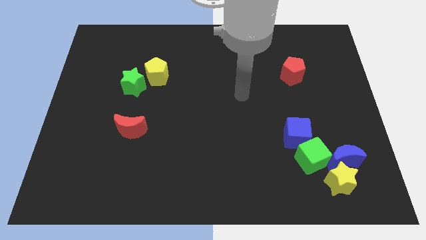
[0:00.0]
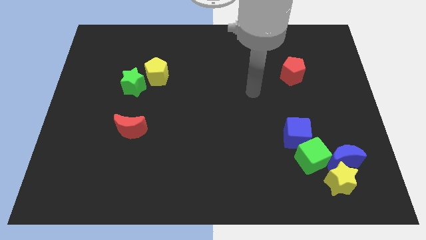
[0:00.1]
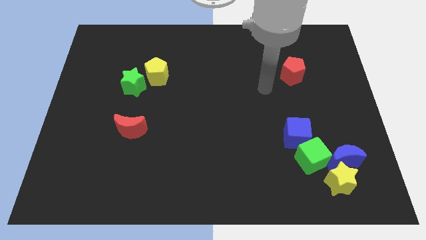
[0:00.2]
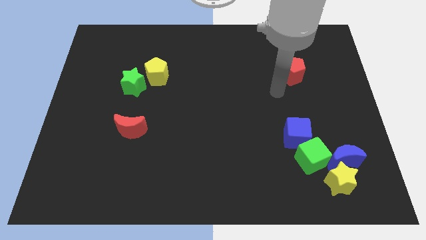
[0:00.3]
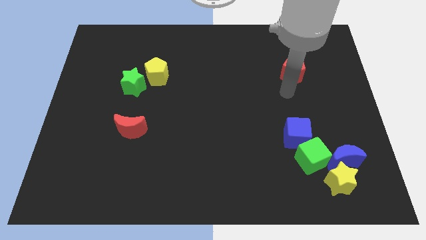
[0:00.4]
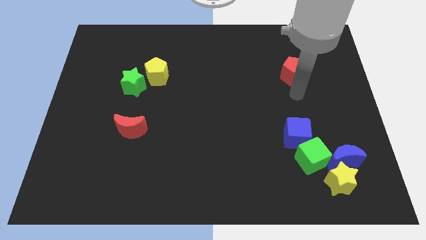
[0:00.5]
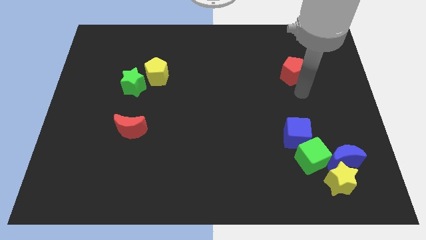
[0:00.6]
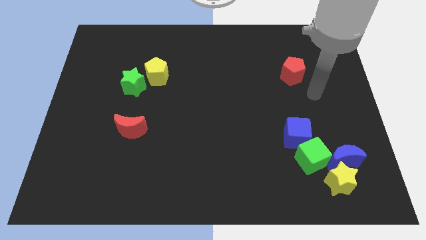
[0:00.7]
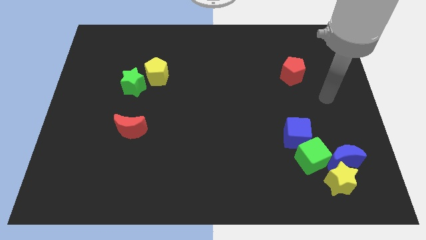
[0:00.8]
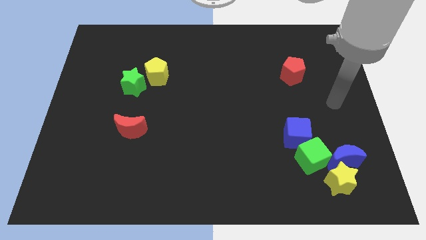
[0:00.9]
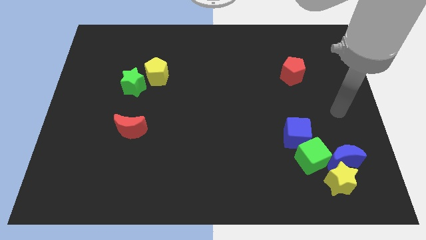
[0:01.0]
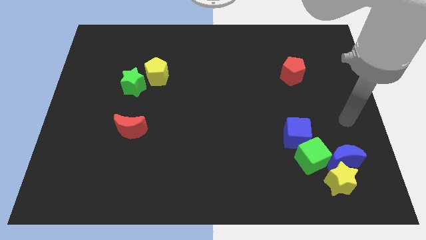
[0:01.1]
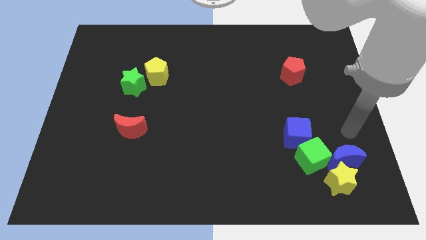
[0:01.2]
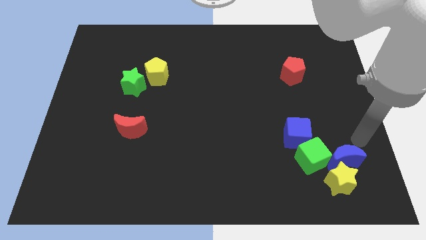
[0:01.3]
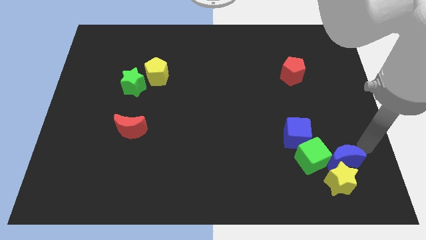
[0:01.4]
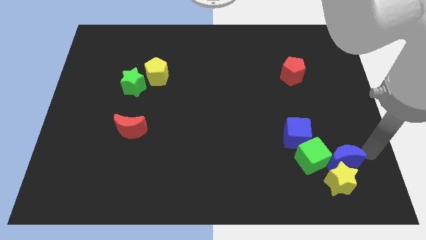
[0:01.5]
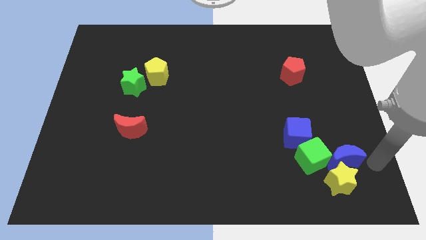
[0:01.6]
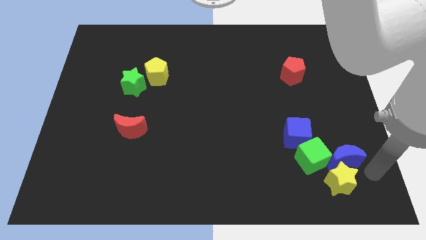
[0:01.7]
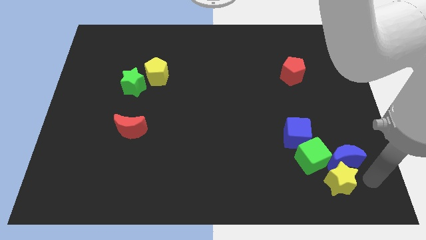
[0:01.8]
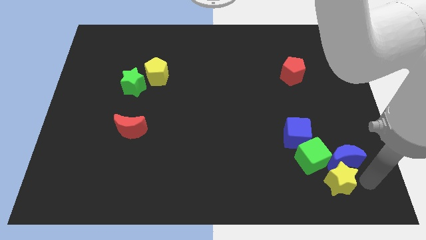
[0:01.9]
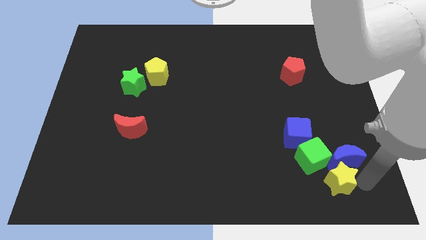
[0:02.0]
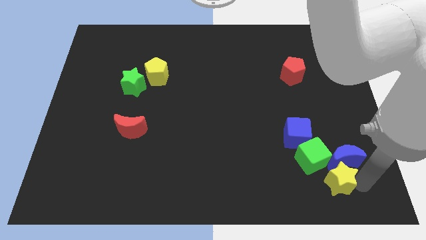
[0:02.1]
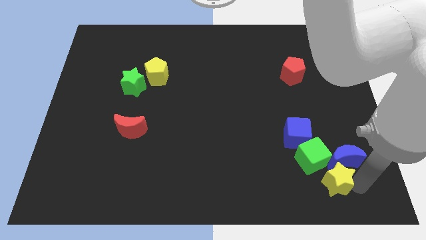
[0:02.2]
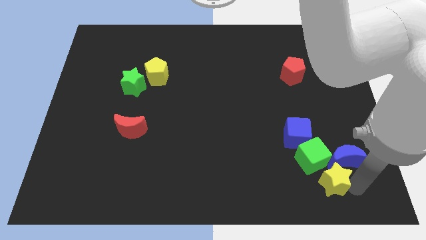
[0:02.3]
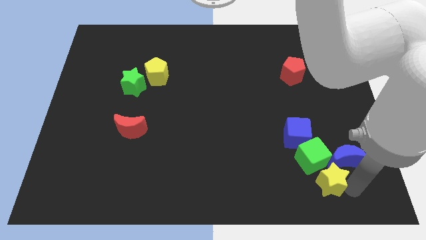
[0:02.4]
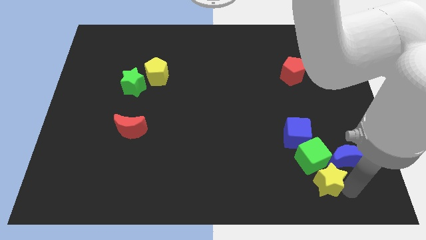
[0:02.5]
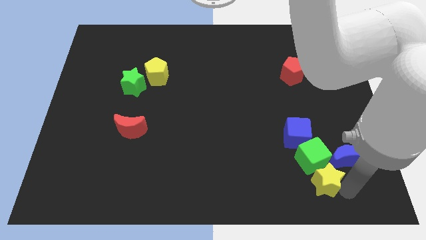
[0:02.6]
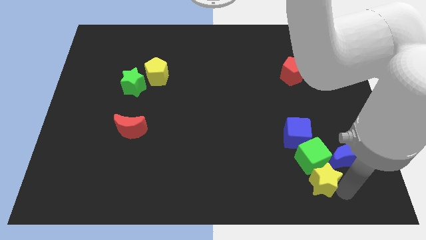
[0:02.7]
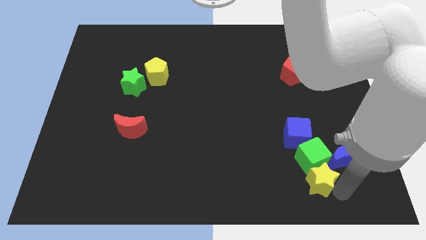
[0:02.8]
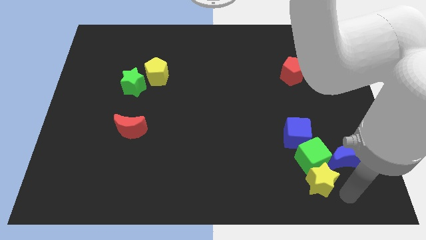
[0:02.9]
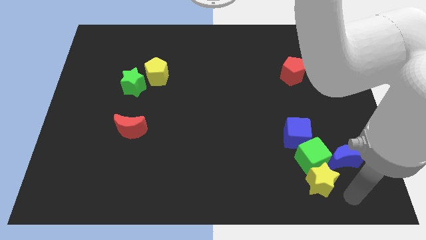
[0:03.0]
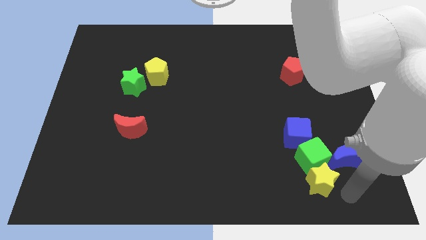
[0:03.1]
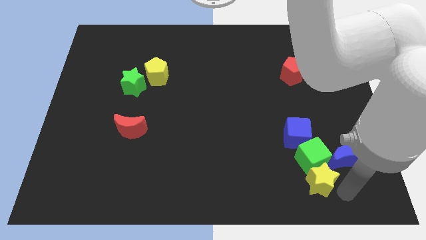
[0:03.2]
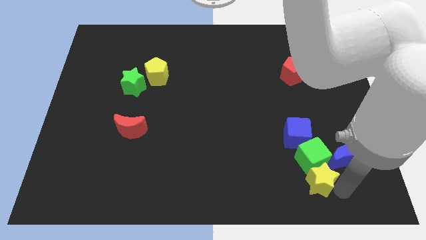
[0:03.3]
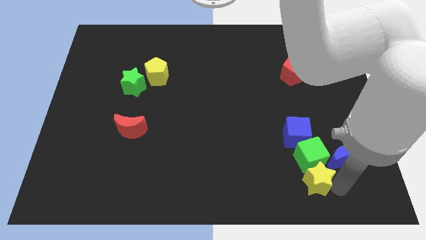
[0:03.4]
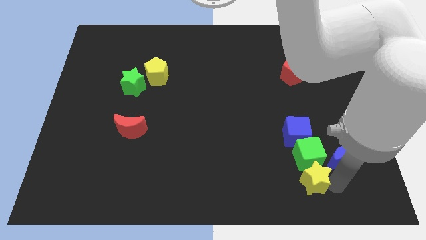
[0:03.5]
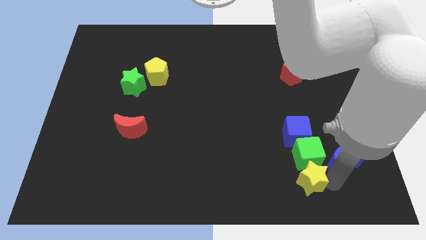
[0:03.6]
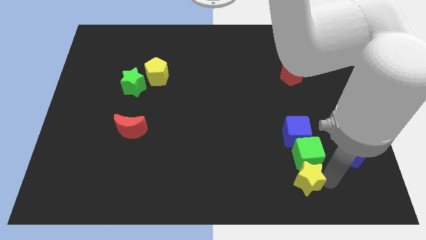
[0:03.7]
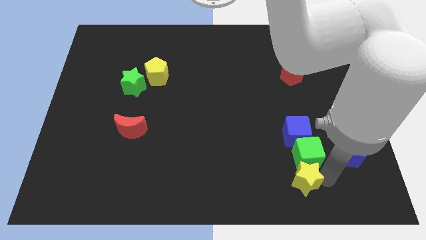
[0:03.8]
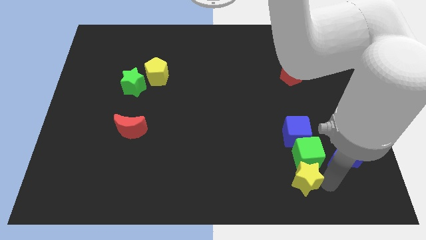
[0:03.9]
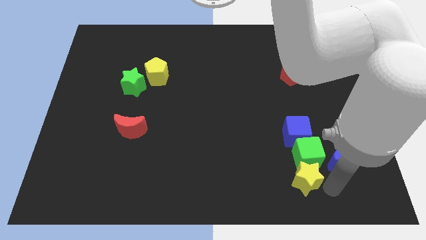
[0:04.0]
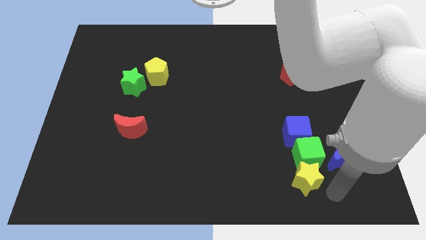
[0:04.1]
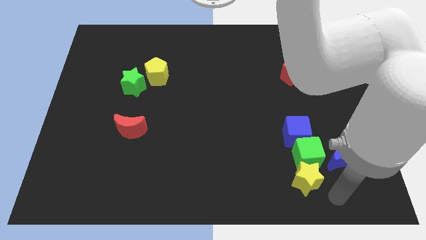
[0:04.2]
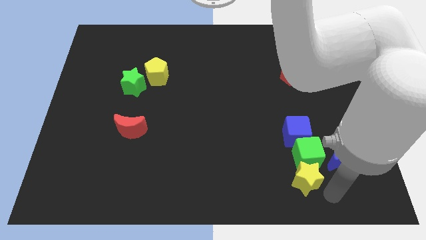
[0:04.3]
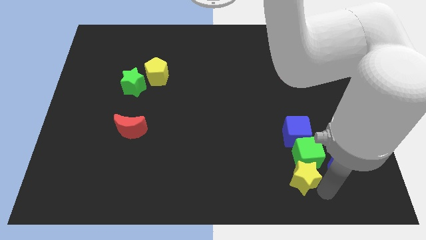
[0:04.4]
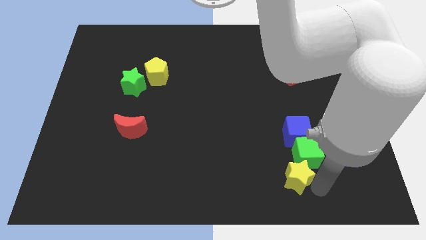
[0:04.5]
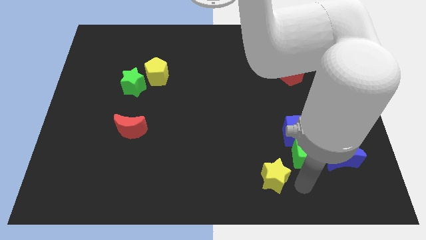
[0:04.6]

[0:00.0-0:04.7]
slide the yellow star somewhat up and to the left diagonally

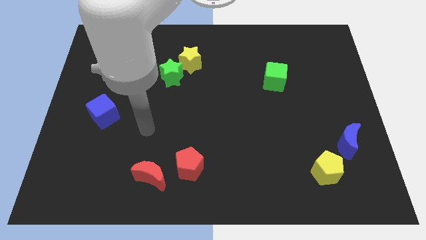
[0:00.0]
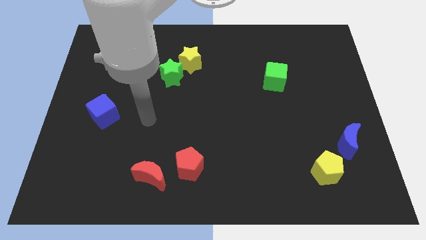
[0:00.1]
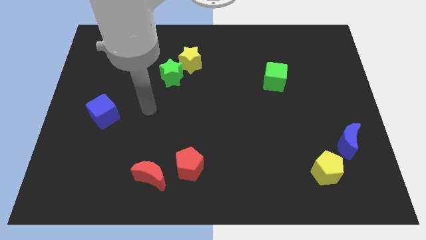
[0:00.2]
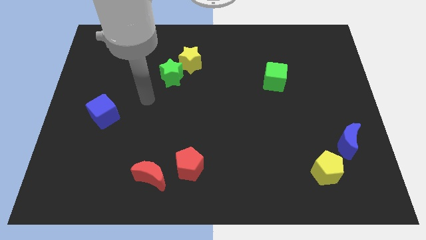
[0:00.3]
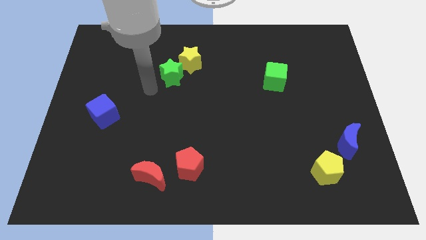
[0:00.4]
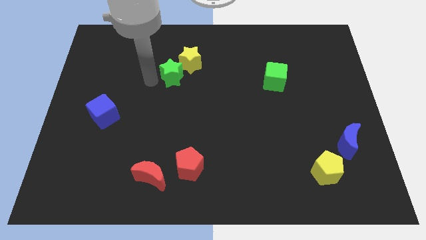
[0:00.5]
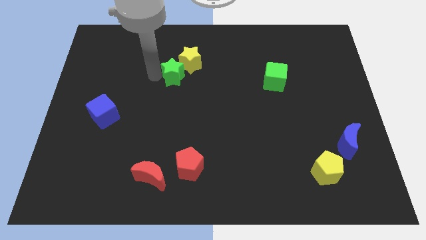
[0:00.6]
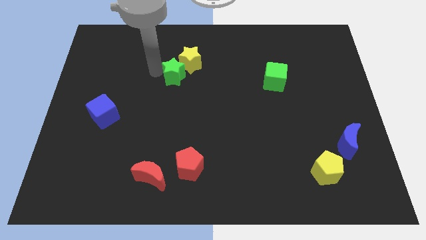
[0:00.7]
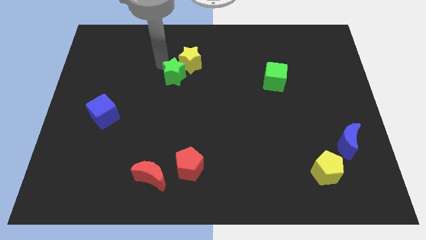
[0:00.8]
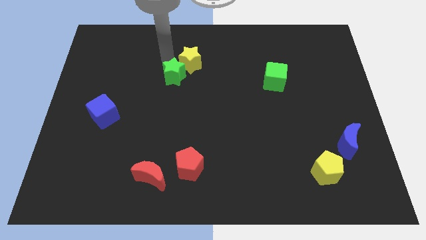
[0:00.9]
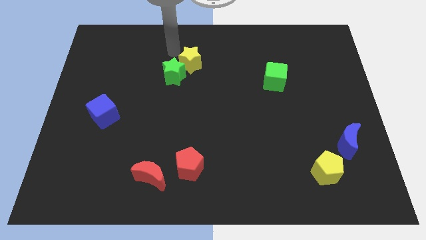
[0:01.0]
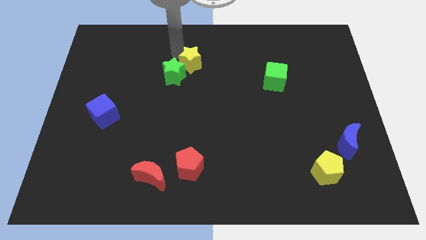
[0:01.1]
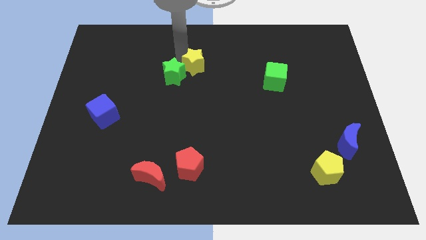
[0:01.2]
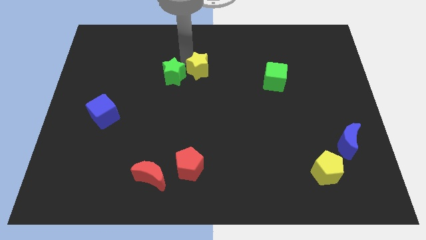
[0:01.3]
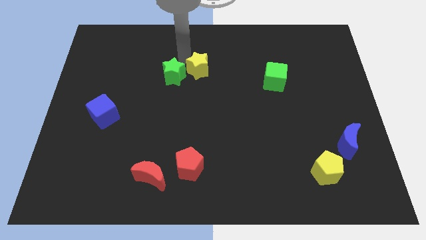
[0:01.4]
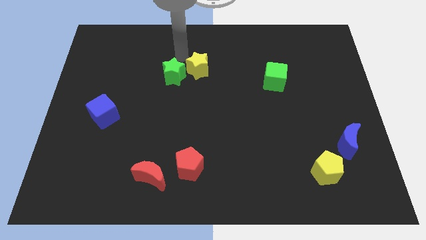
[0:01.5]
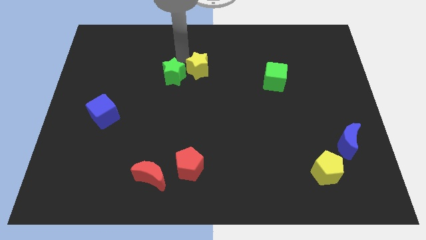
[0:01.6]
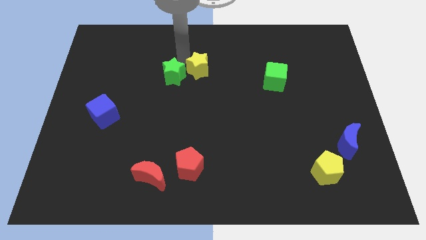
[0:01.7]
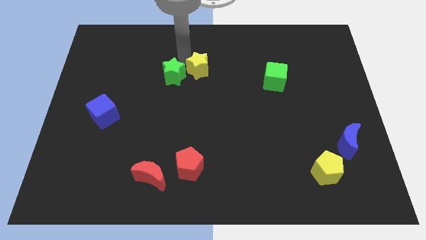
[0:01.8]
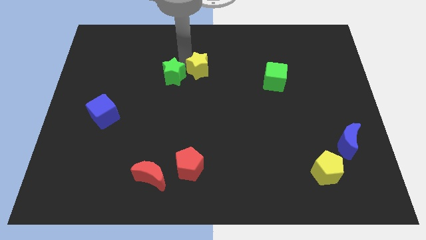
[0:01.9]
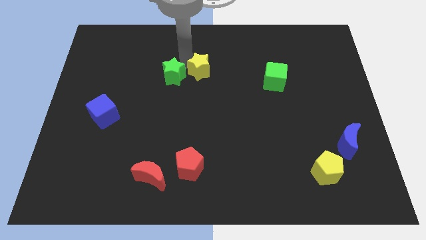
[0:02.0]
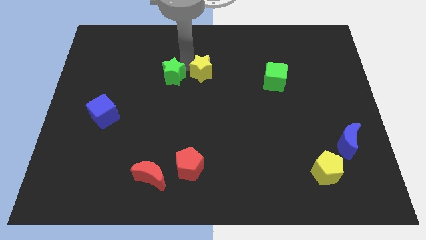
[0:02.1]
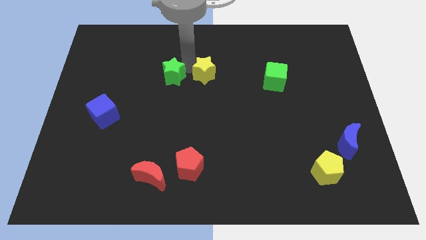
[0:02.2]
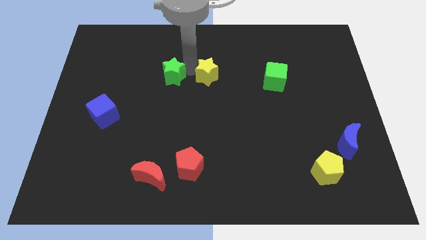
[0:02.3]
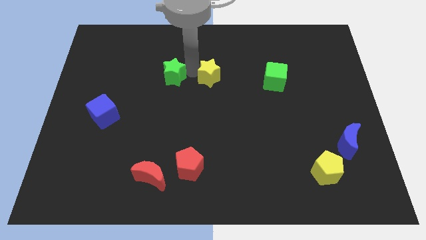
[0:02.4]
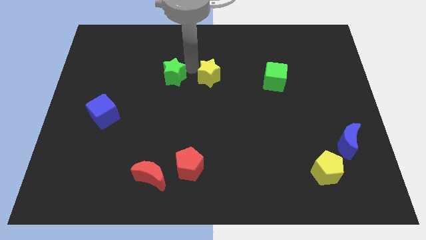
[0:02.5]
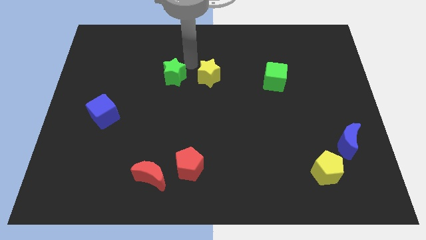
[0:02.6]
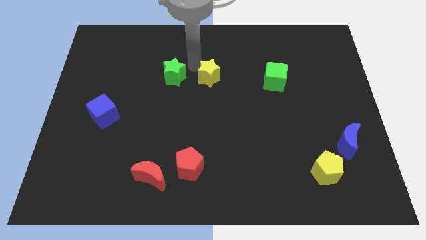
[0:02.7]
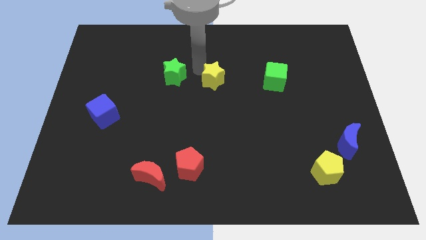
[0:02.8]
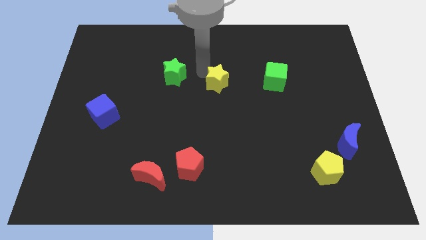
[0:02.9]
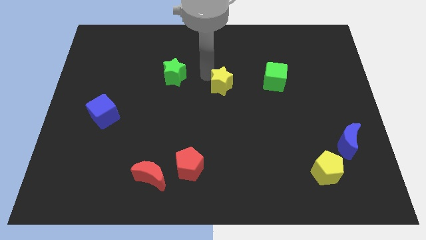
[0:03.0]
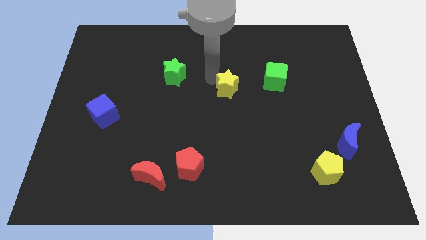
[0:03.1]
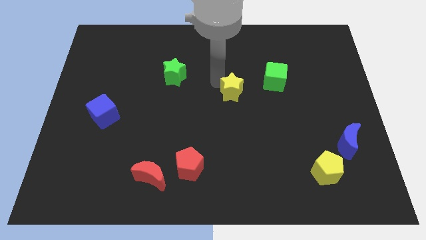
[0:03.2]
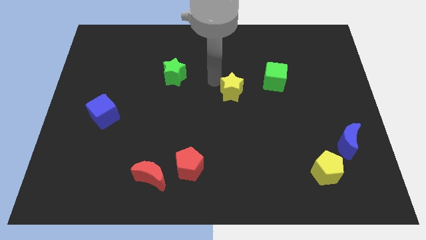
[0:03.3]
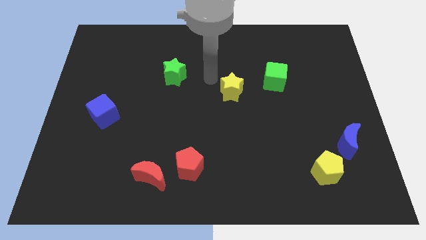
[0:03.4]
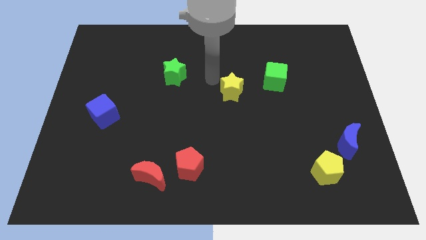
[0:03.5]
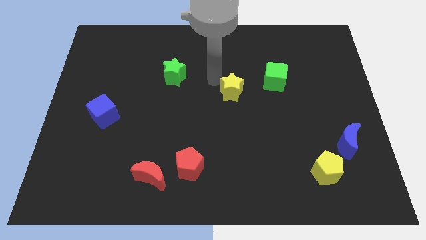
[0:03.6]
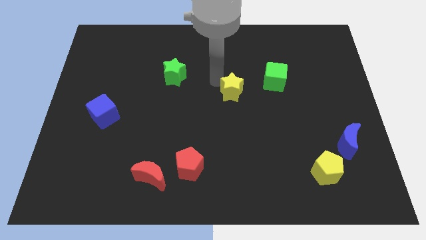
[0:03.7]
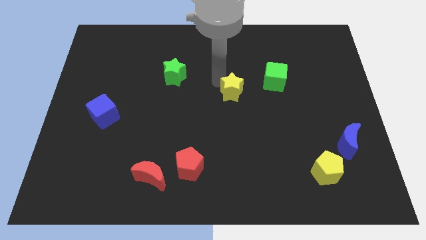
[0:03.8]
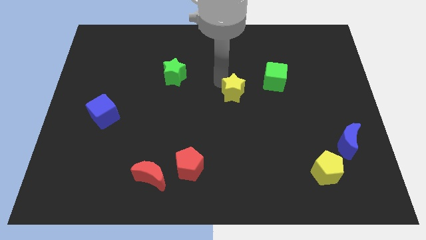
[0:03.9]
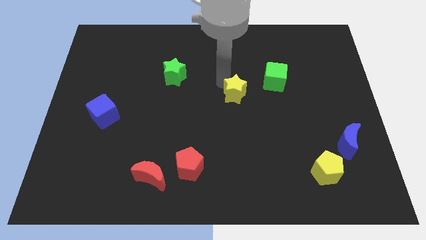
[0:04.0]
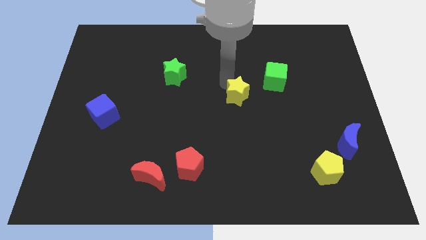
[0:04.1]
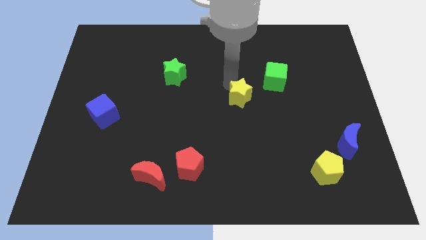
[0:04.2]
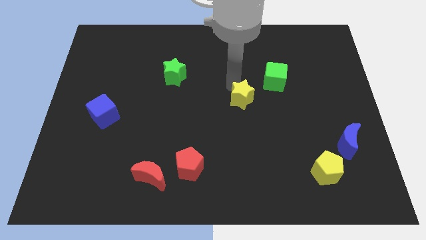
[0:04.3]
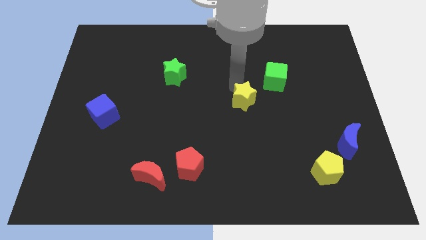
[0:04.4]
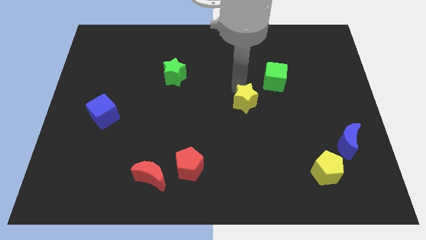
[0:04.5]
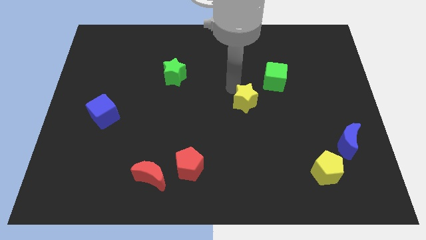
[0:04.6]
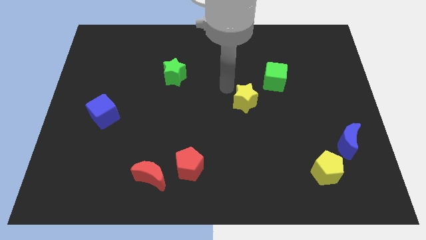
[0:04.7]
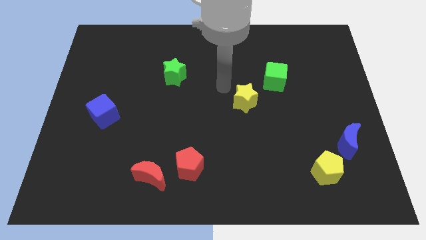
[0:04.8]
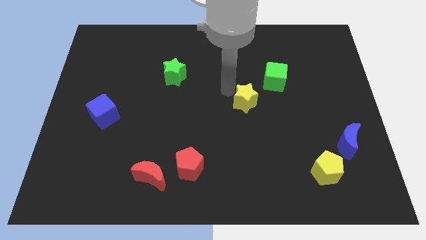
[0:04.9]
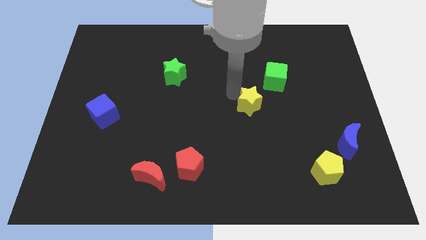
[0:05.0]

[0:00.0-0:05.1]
push the yellow star diagonally downwards and right
